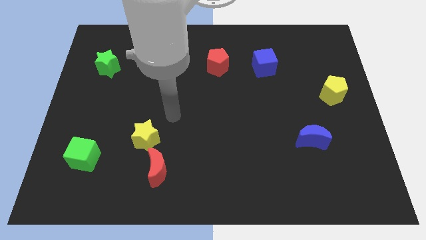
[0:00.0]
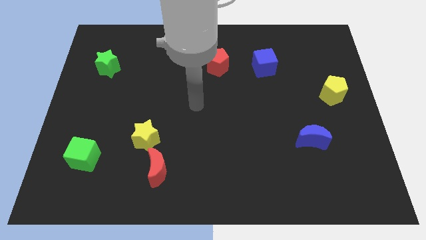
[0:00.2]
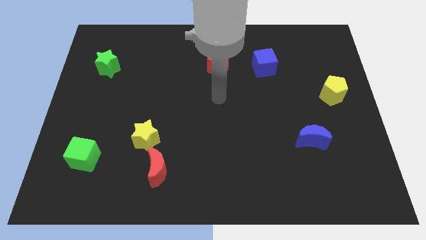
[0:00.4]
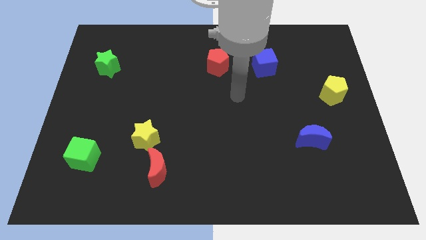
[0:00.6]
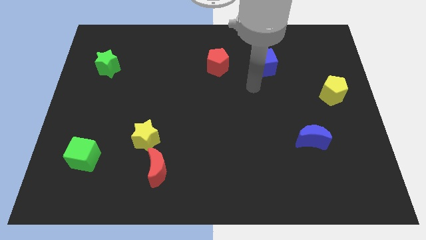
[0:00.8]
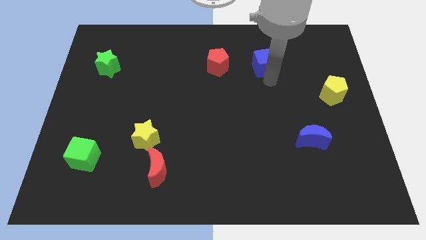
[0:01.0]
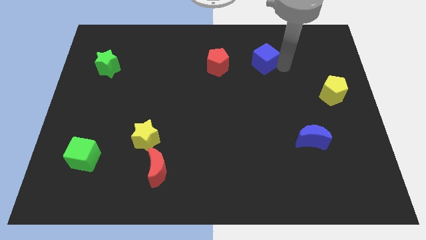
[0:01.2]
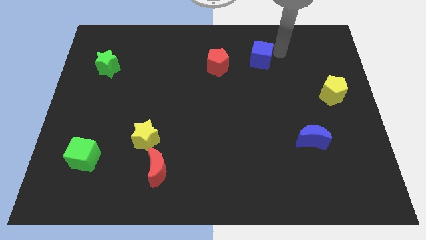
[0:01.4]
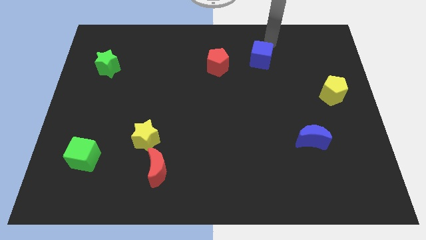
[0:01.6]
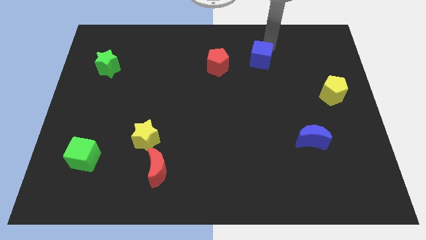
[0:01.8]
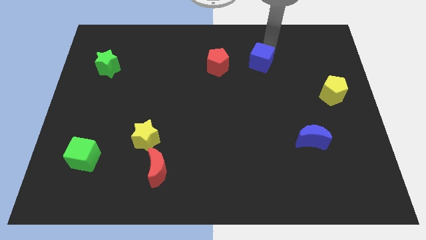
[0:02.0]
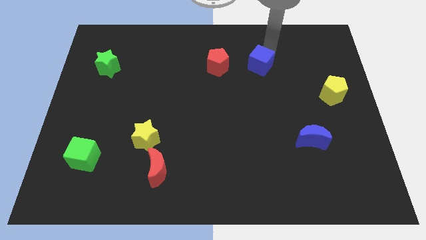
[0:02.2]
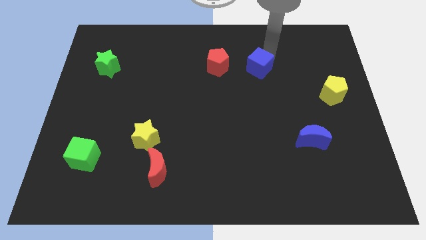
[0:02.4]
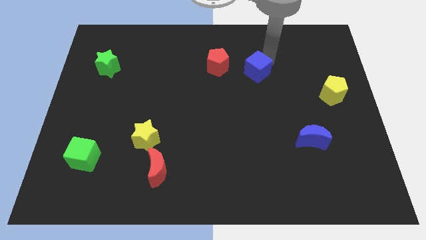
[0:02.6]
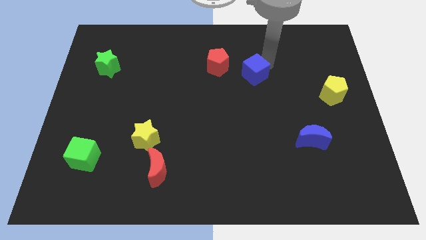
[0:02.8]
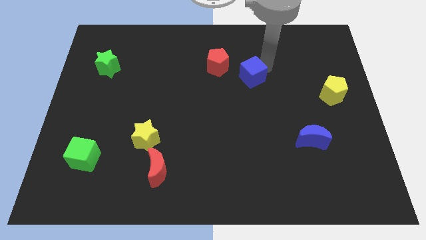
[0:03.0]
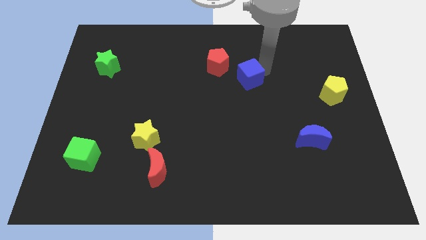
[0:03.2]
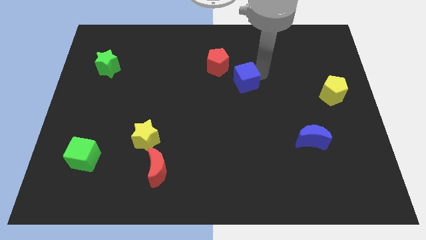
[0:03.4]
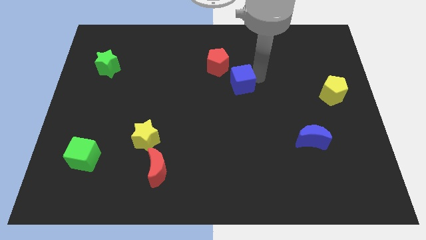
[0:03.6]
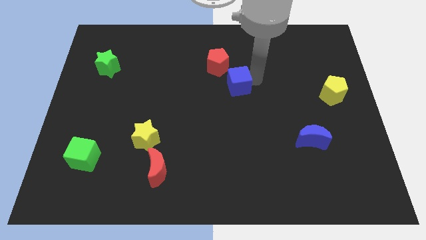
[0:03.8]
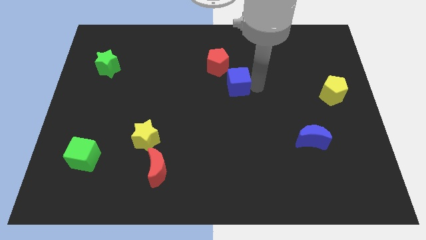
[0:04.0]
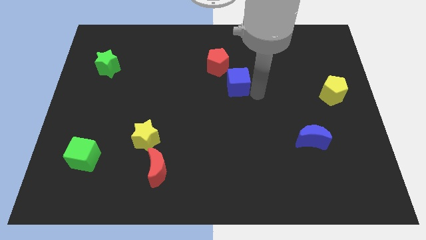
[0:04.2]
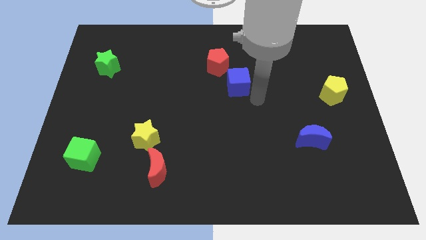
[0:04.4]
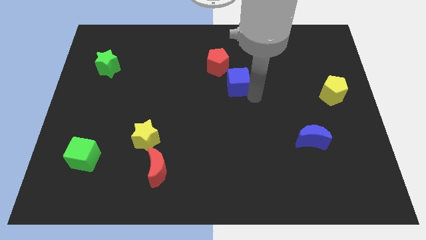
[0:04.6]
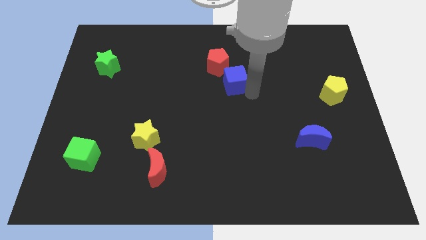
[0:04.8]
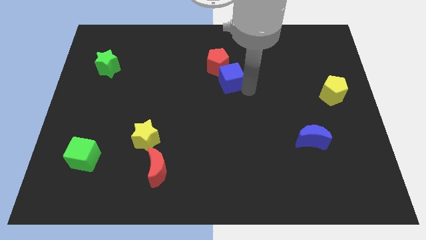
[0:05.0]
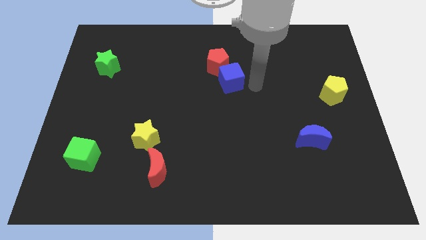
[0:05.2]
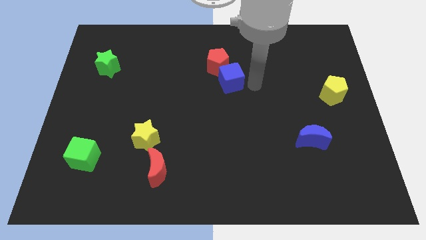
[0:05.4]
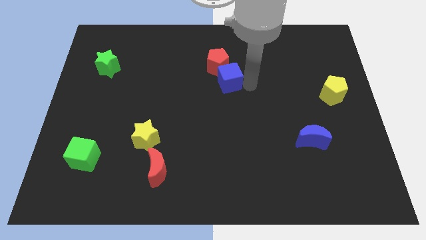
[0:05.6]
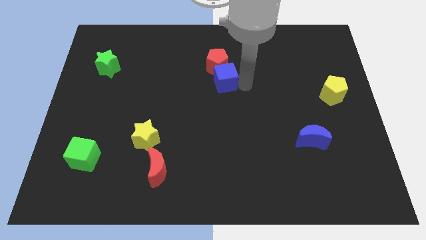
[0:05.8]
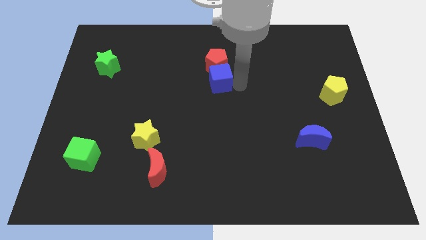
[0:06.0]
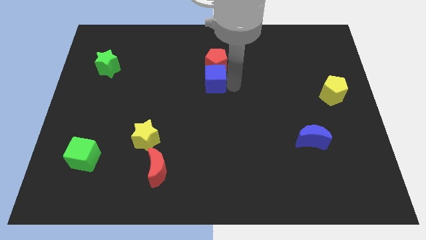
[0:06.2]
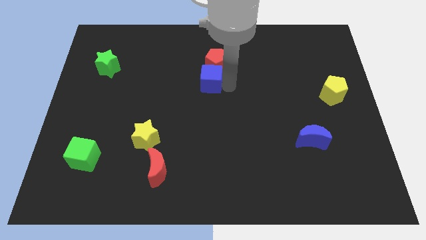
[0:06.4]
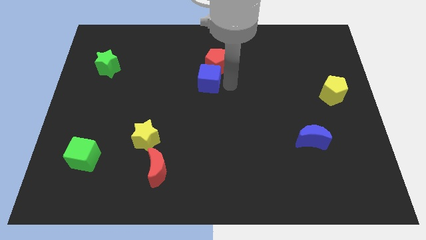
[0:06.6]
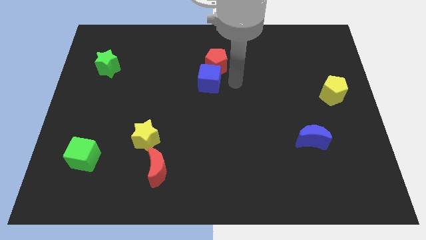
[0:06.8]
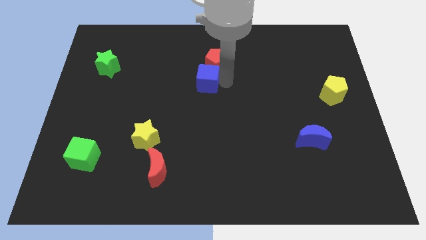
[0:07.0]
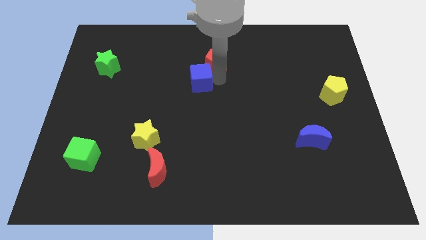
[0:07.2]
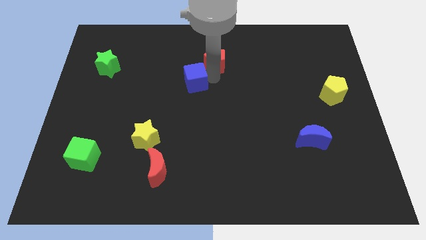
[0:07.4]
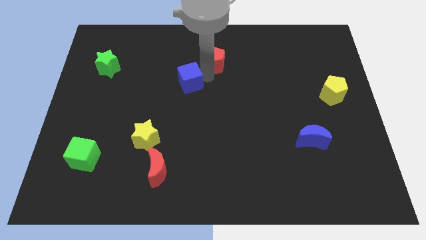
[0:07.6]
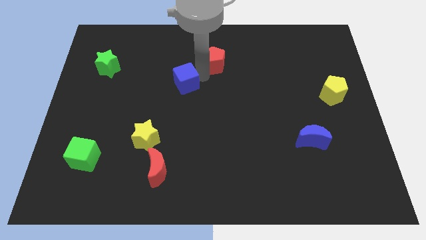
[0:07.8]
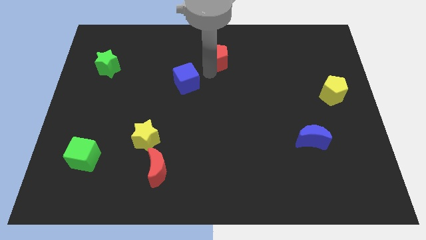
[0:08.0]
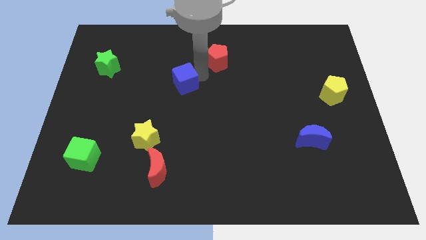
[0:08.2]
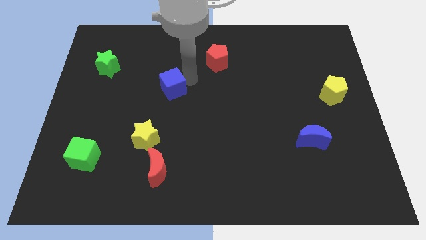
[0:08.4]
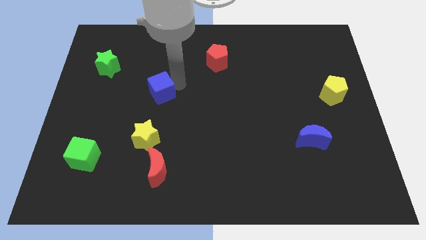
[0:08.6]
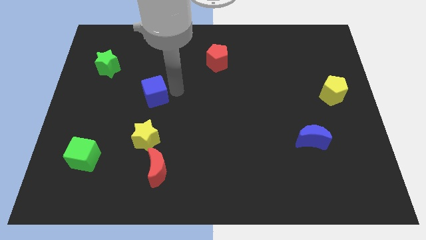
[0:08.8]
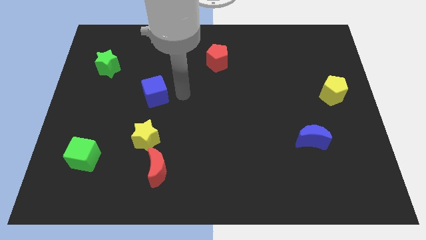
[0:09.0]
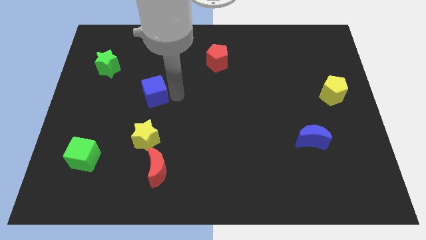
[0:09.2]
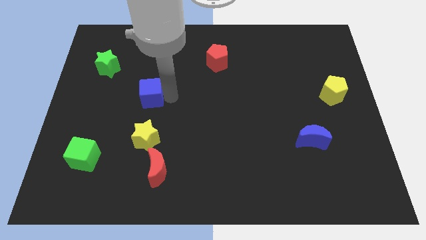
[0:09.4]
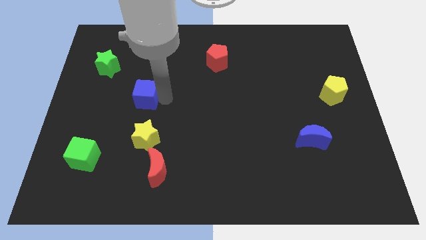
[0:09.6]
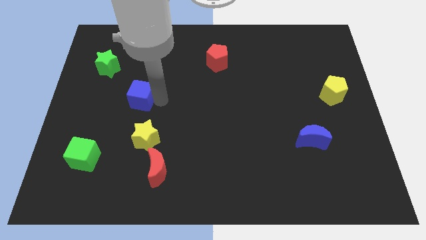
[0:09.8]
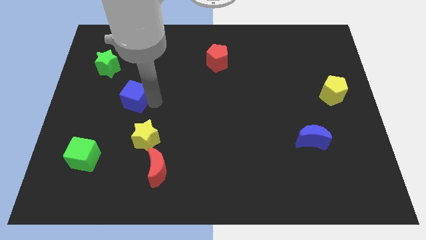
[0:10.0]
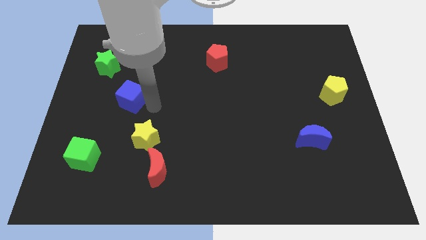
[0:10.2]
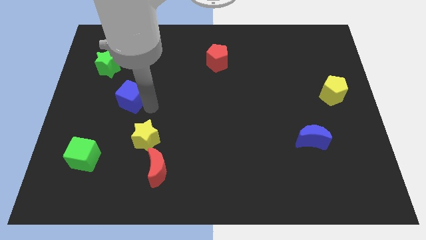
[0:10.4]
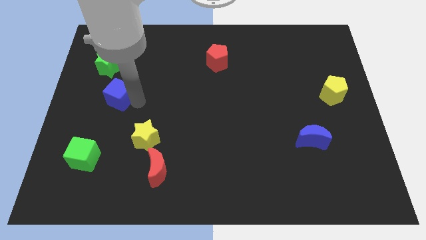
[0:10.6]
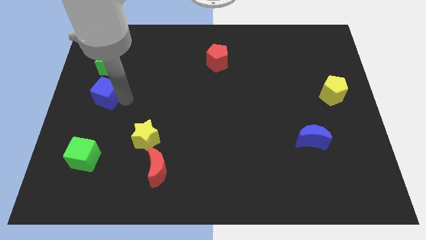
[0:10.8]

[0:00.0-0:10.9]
put the blue cube to the center left
